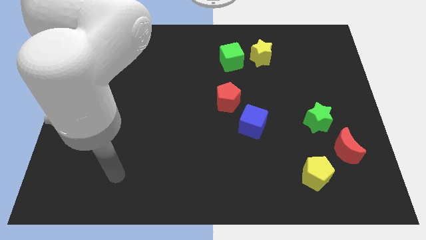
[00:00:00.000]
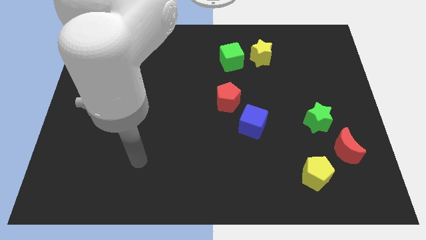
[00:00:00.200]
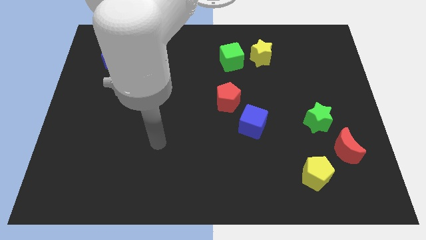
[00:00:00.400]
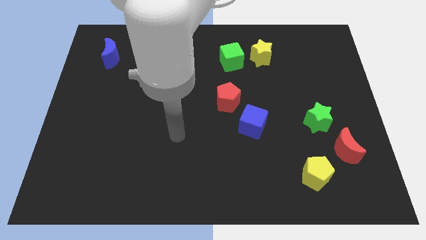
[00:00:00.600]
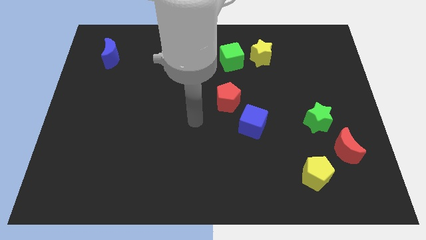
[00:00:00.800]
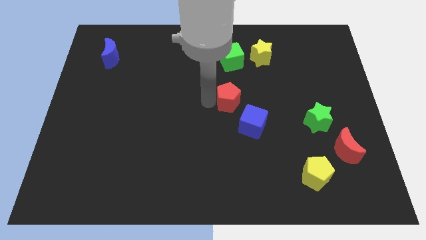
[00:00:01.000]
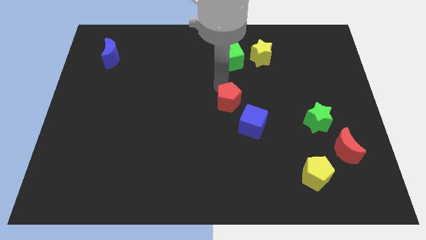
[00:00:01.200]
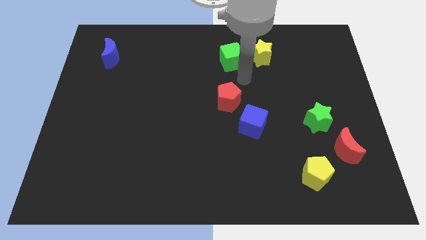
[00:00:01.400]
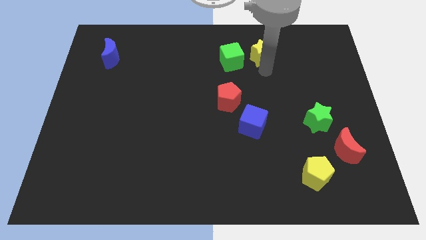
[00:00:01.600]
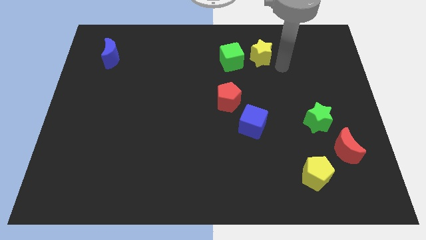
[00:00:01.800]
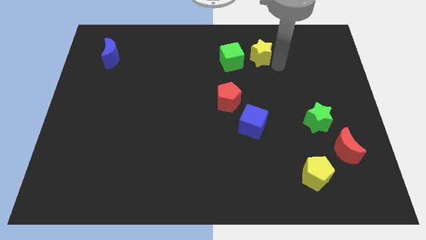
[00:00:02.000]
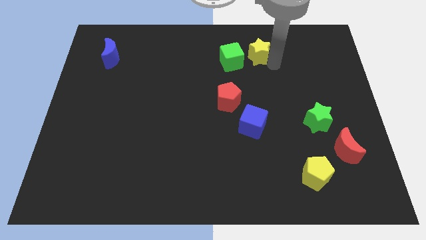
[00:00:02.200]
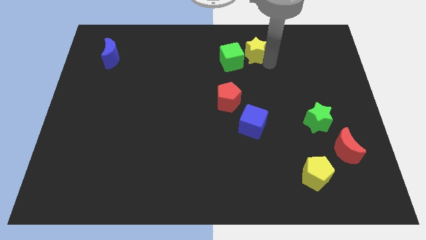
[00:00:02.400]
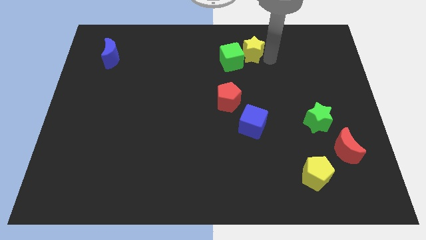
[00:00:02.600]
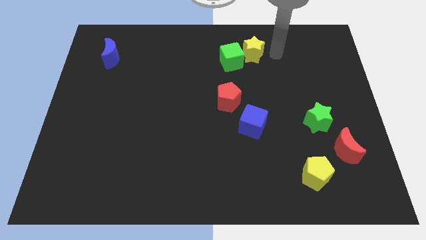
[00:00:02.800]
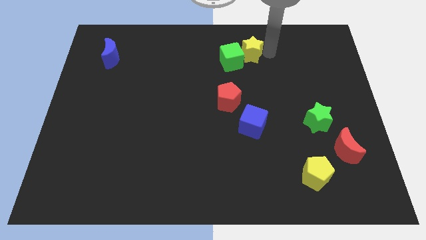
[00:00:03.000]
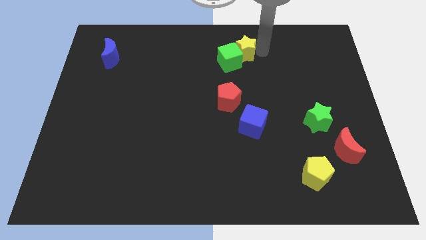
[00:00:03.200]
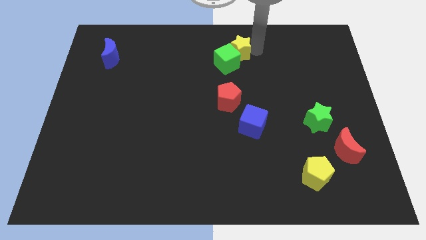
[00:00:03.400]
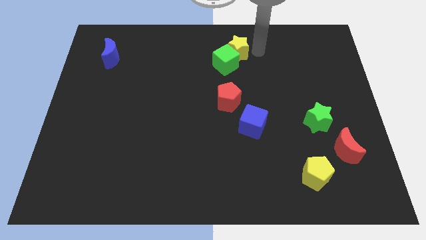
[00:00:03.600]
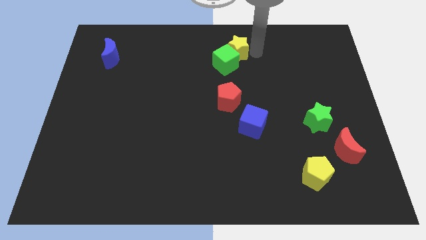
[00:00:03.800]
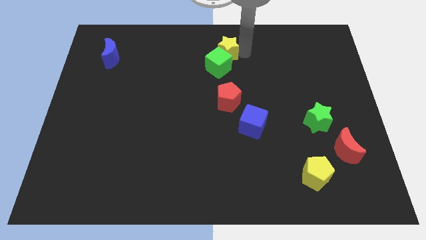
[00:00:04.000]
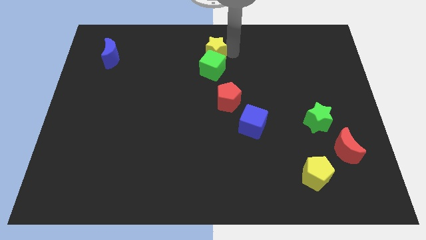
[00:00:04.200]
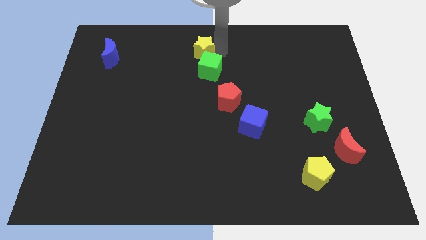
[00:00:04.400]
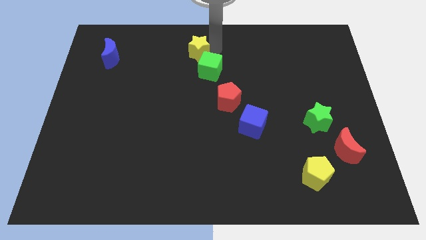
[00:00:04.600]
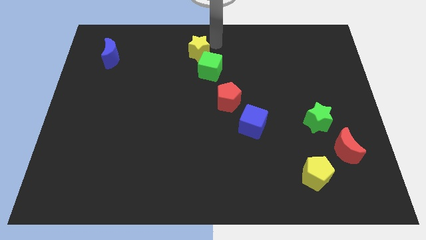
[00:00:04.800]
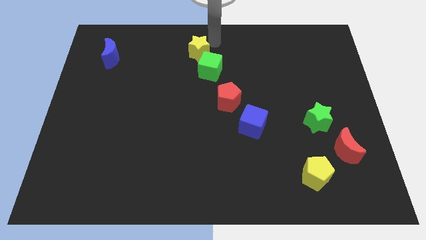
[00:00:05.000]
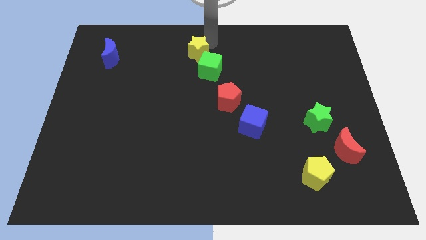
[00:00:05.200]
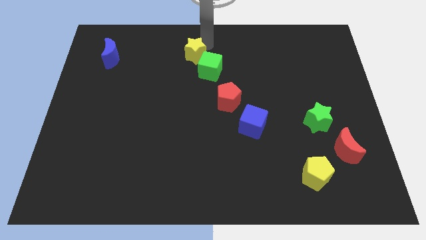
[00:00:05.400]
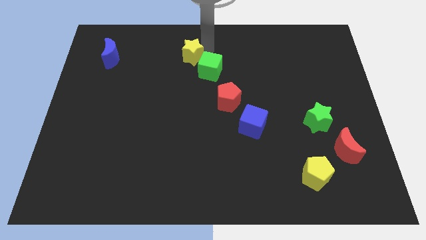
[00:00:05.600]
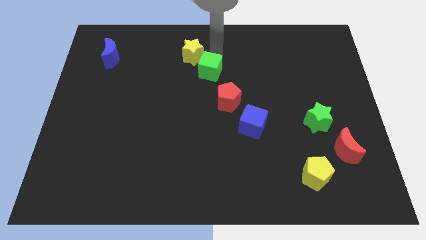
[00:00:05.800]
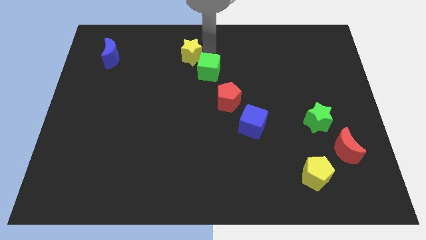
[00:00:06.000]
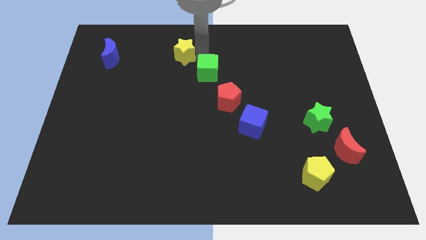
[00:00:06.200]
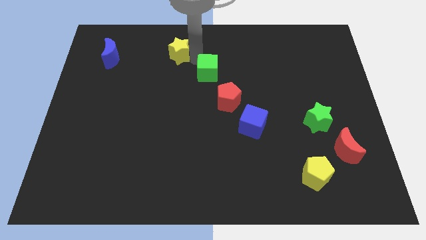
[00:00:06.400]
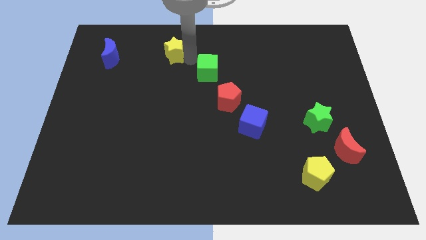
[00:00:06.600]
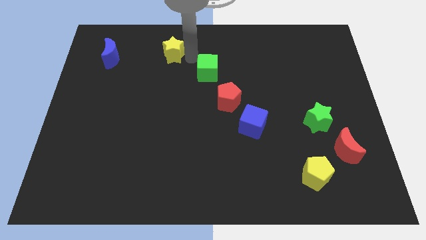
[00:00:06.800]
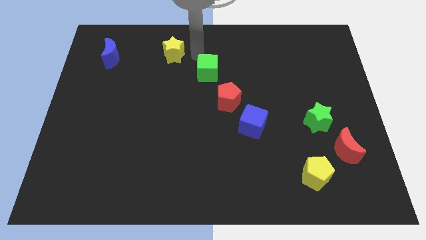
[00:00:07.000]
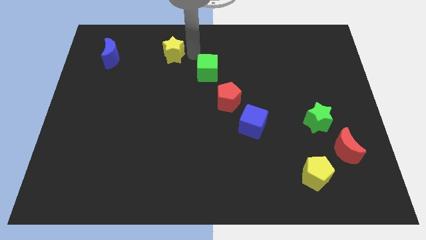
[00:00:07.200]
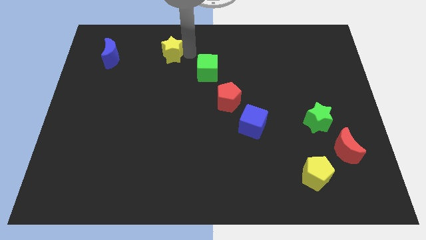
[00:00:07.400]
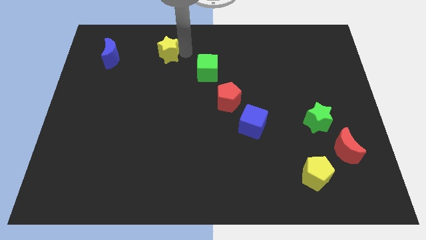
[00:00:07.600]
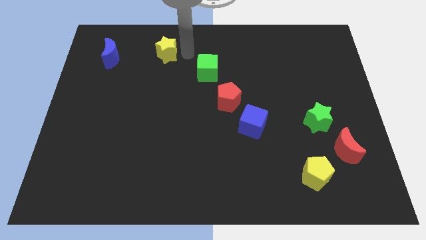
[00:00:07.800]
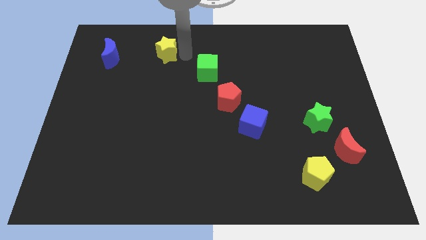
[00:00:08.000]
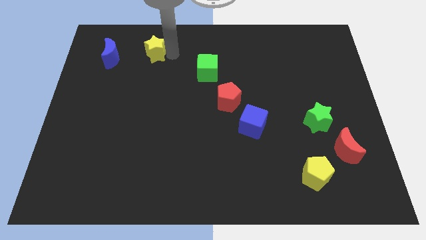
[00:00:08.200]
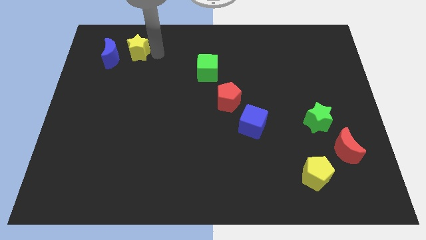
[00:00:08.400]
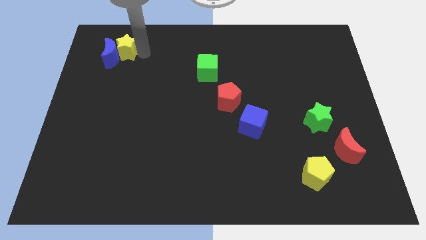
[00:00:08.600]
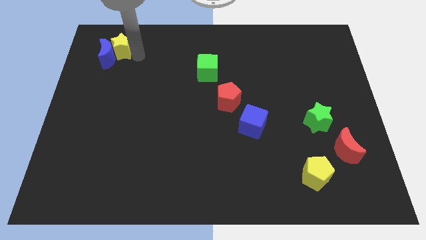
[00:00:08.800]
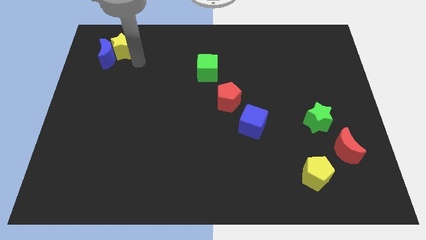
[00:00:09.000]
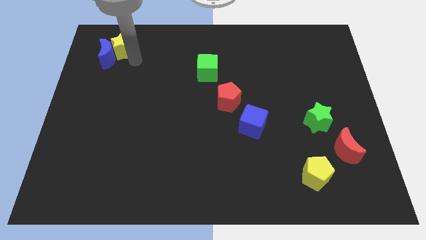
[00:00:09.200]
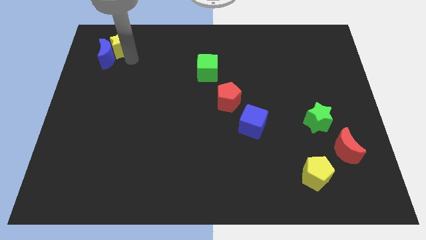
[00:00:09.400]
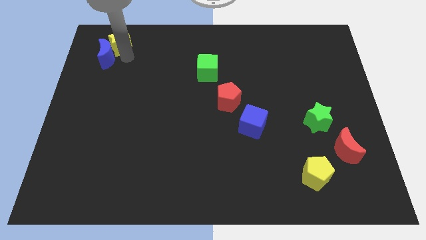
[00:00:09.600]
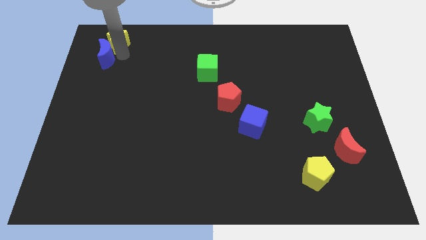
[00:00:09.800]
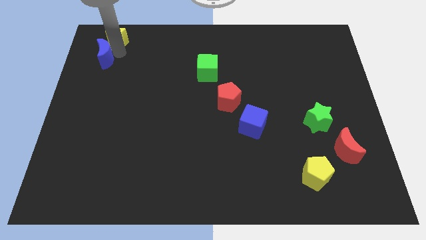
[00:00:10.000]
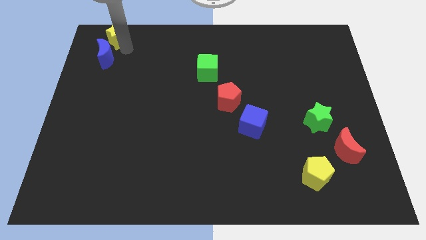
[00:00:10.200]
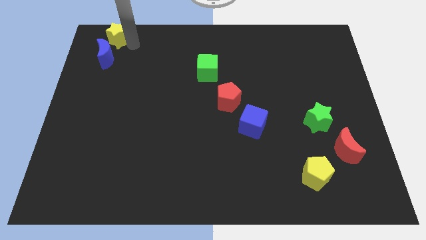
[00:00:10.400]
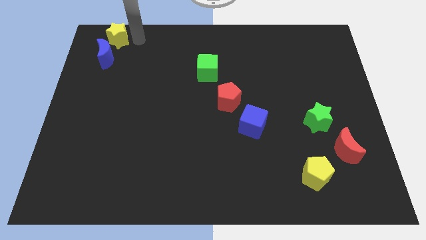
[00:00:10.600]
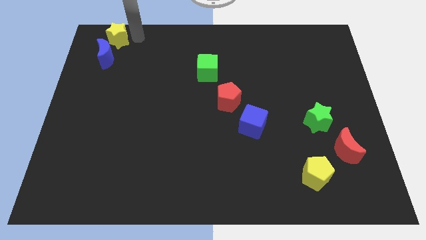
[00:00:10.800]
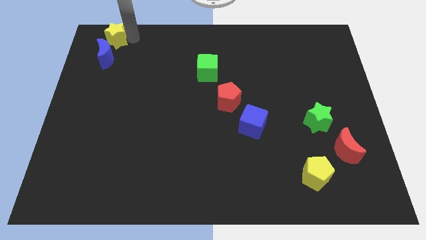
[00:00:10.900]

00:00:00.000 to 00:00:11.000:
push the yellow star to the top left

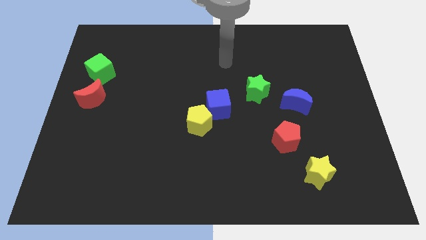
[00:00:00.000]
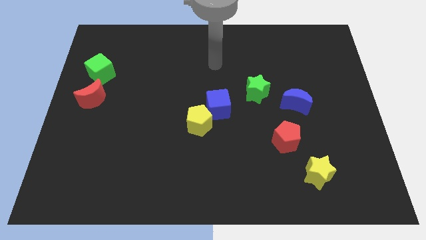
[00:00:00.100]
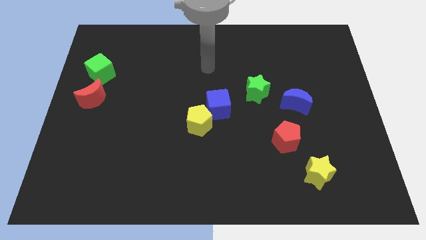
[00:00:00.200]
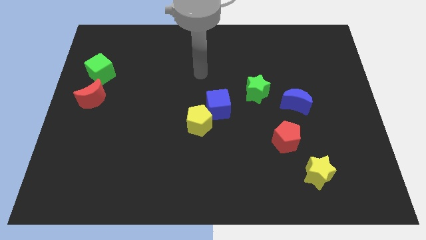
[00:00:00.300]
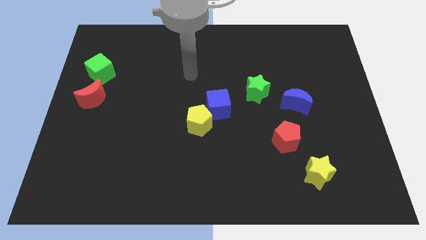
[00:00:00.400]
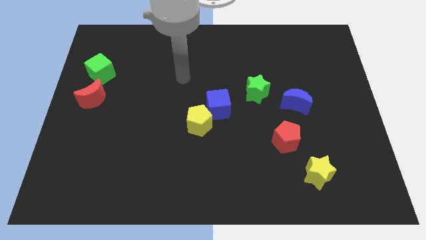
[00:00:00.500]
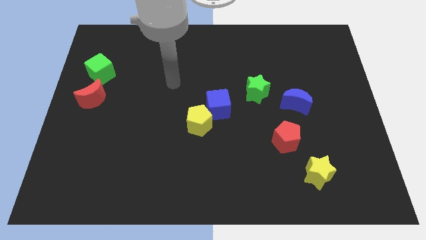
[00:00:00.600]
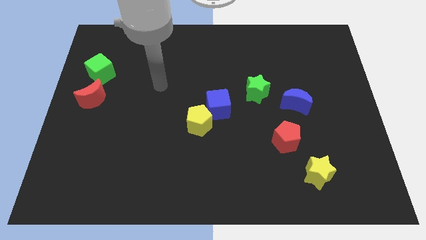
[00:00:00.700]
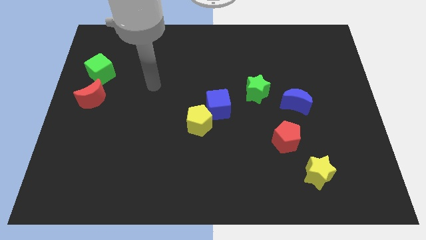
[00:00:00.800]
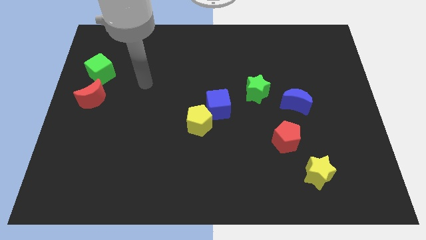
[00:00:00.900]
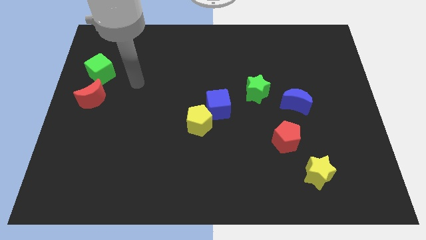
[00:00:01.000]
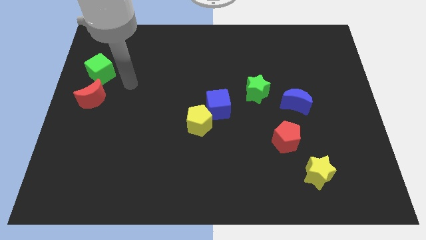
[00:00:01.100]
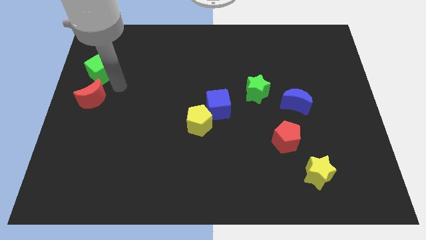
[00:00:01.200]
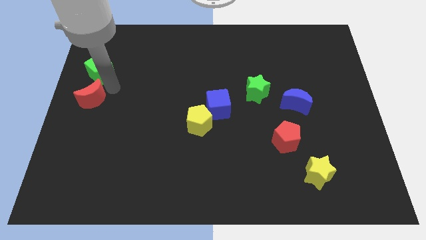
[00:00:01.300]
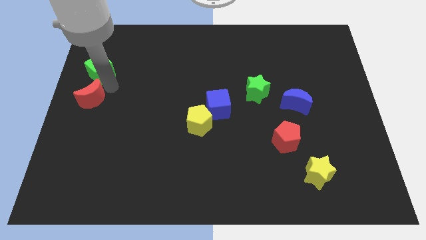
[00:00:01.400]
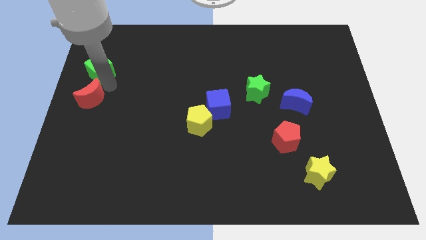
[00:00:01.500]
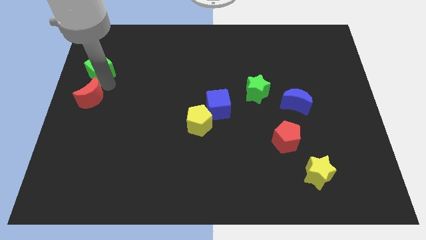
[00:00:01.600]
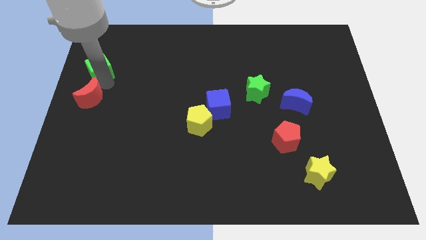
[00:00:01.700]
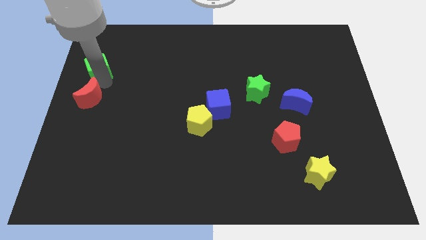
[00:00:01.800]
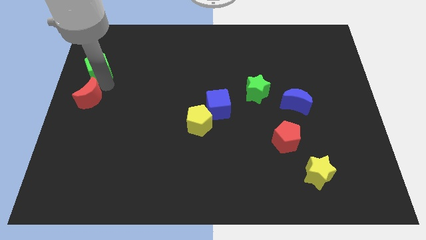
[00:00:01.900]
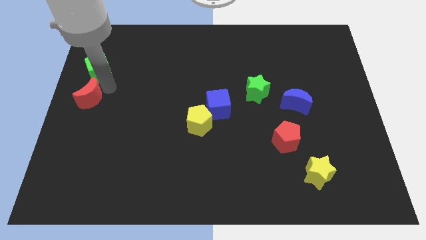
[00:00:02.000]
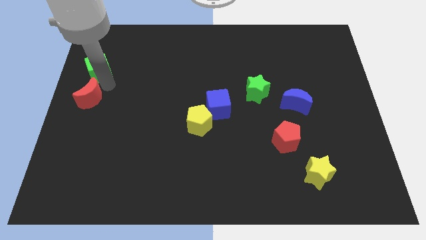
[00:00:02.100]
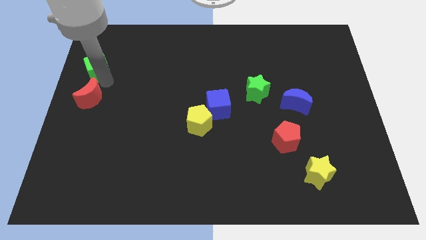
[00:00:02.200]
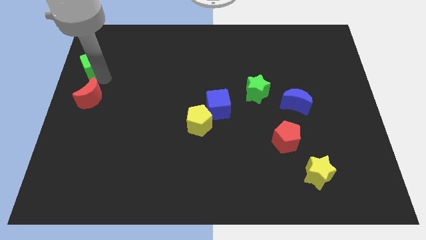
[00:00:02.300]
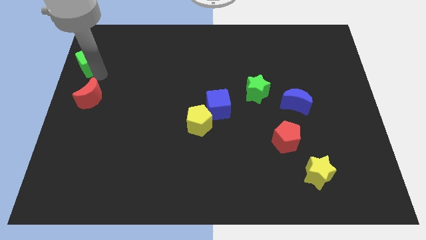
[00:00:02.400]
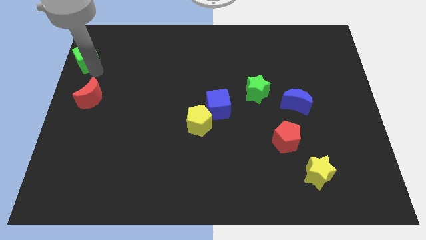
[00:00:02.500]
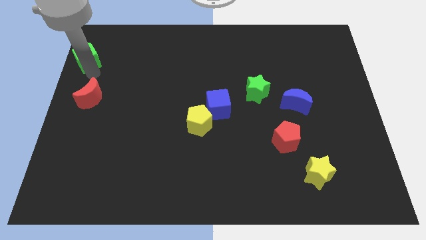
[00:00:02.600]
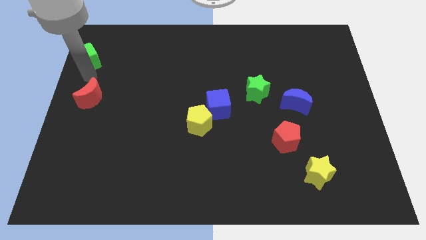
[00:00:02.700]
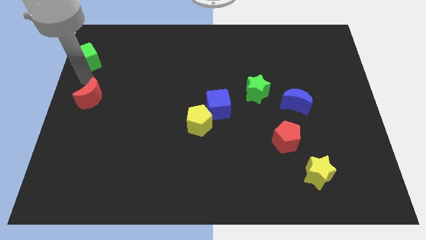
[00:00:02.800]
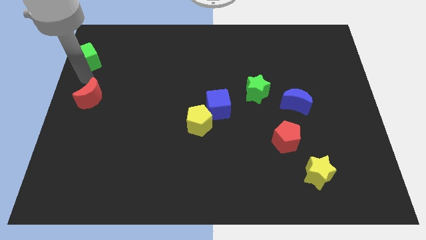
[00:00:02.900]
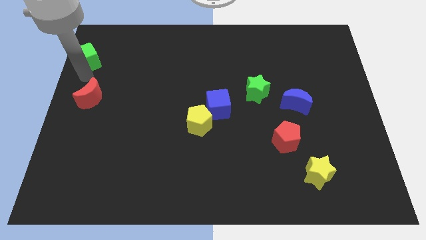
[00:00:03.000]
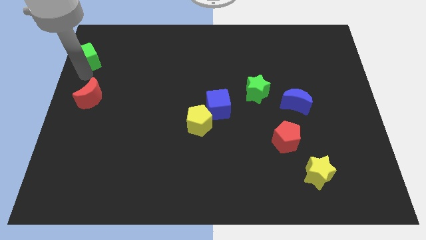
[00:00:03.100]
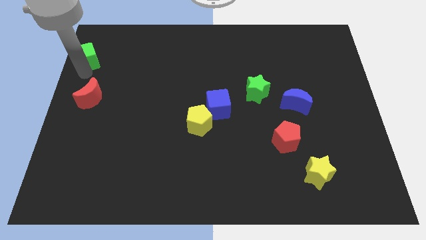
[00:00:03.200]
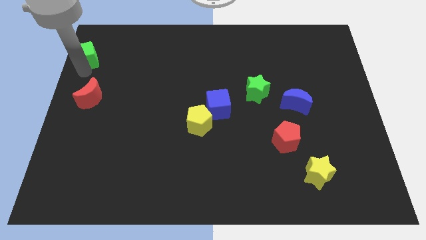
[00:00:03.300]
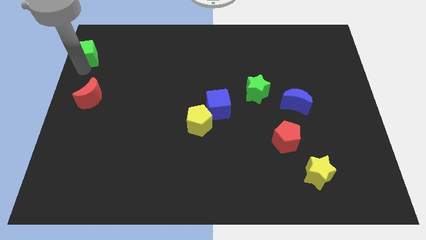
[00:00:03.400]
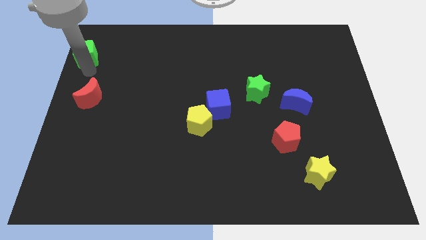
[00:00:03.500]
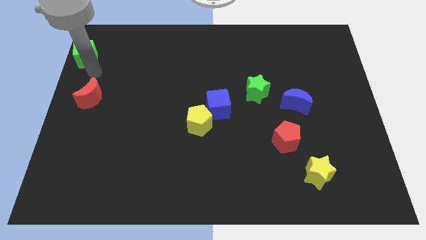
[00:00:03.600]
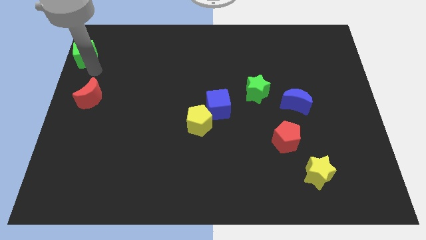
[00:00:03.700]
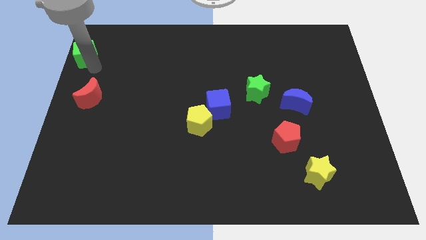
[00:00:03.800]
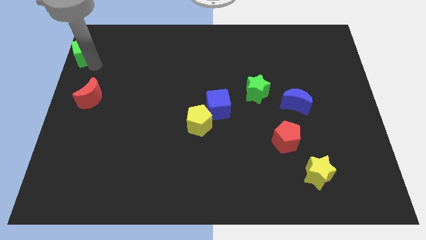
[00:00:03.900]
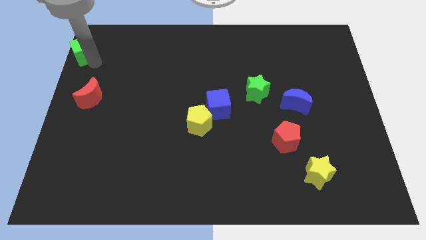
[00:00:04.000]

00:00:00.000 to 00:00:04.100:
slide the green cube to the upper left corner
